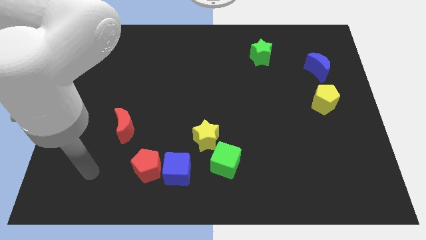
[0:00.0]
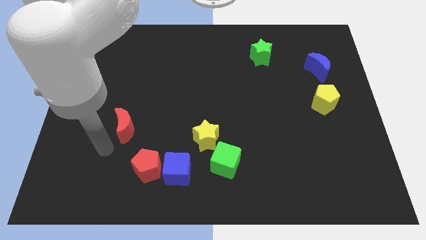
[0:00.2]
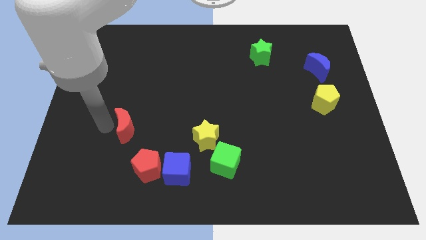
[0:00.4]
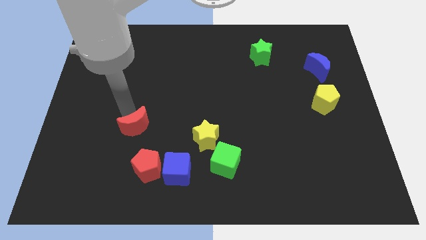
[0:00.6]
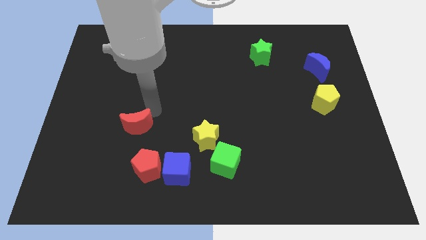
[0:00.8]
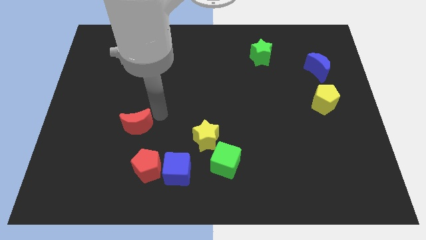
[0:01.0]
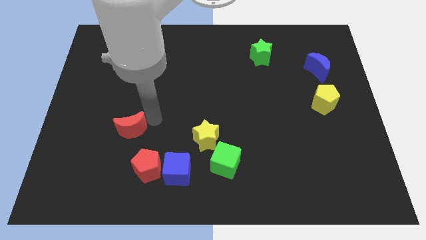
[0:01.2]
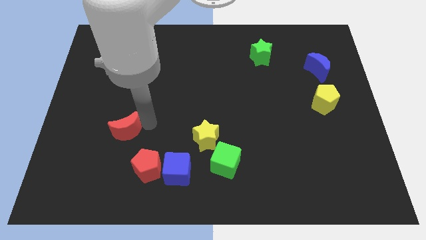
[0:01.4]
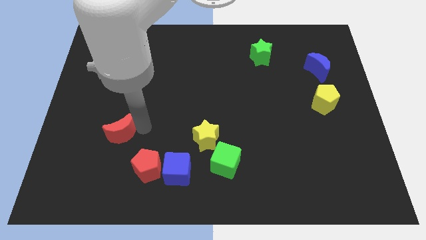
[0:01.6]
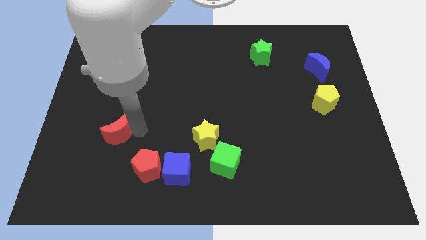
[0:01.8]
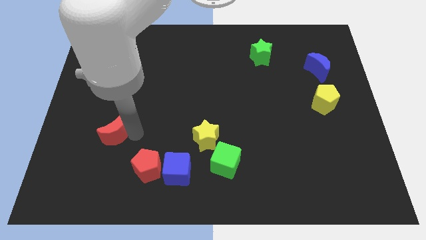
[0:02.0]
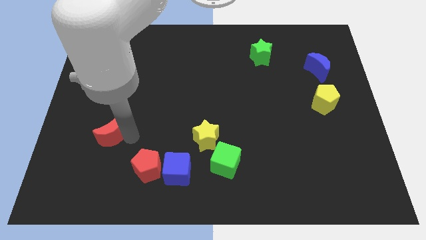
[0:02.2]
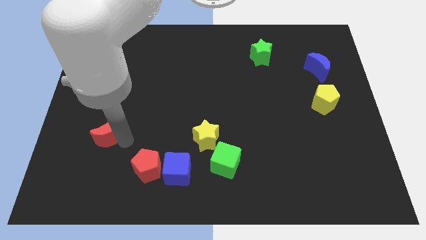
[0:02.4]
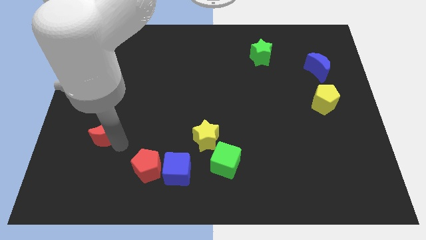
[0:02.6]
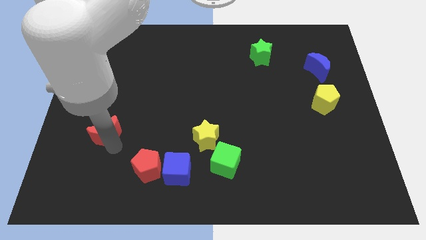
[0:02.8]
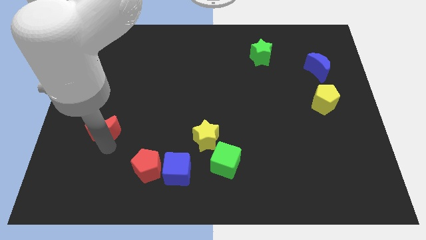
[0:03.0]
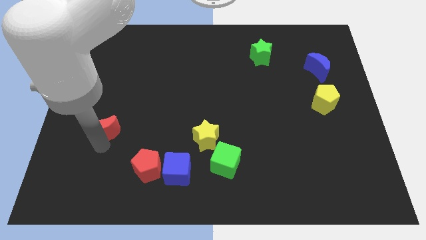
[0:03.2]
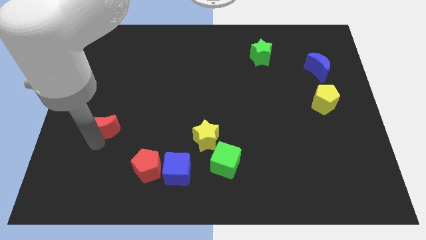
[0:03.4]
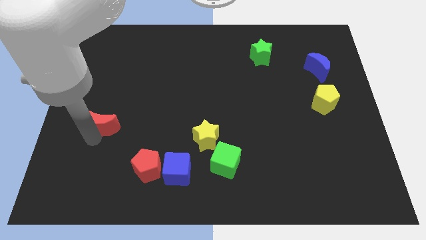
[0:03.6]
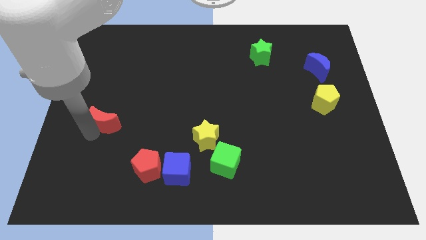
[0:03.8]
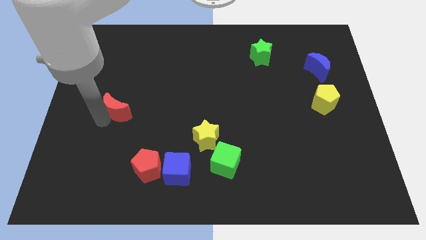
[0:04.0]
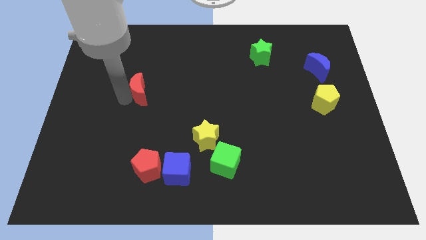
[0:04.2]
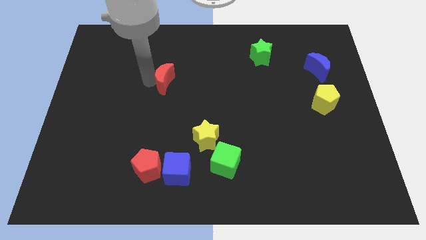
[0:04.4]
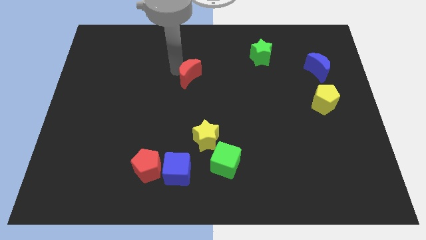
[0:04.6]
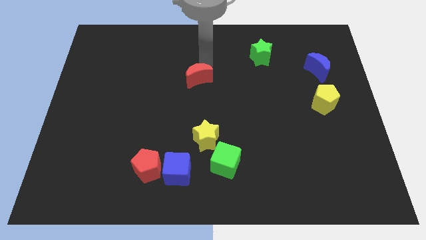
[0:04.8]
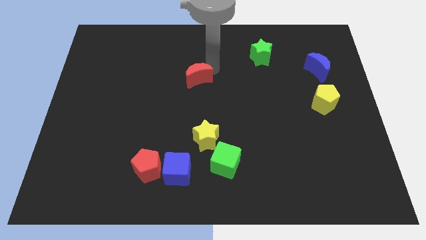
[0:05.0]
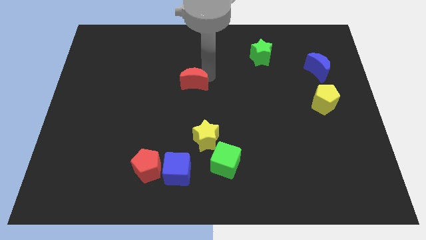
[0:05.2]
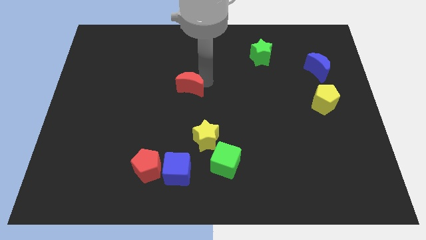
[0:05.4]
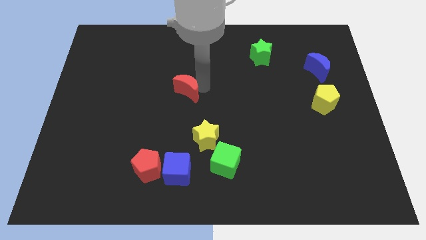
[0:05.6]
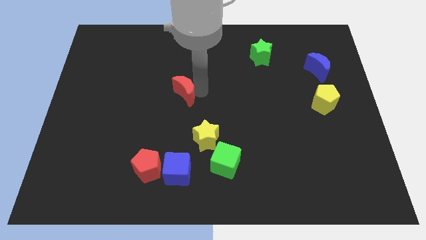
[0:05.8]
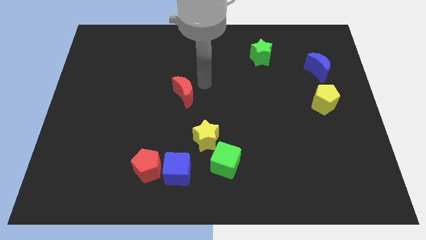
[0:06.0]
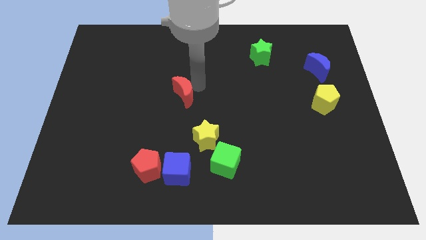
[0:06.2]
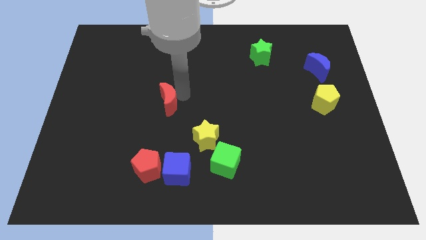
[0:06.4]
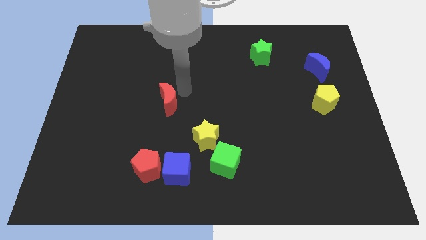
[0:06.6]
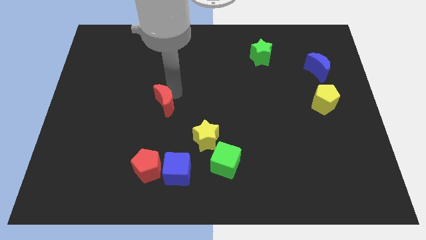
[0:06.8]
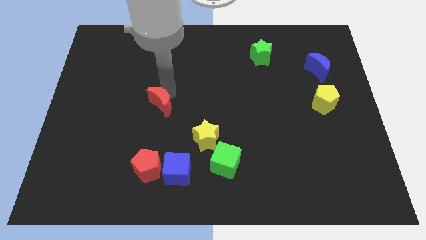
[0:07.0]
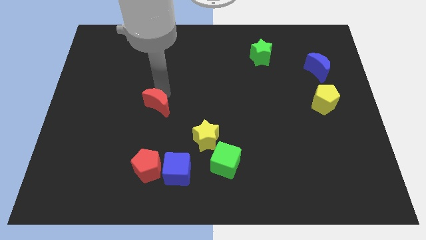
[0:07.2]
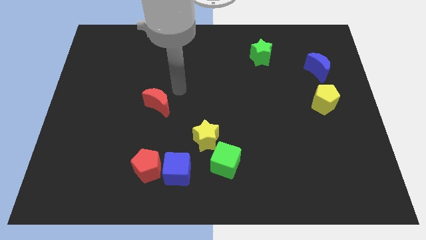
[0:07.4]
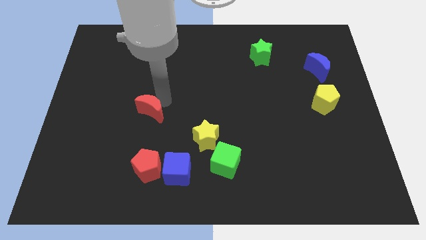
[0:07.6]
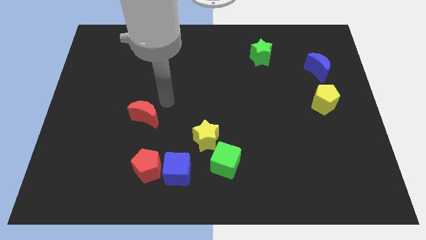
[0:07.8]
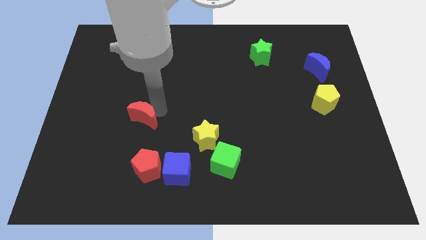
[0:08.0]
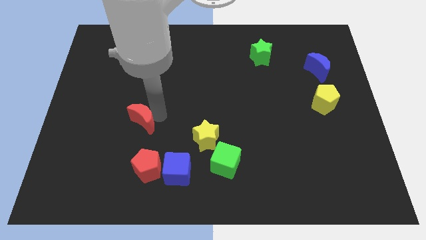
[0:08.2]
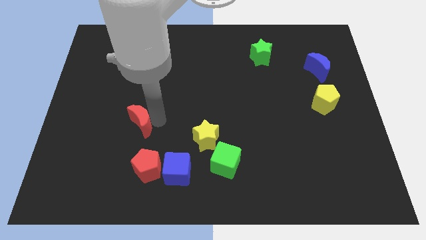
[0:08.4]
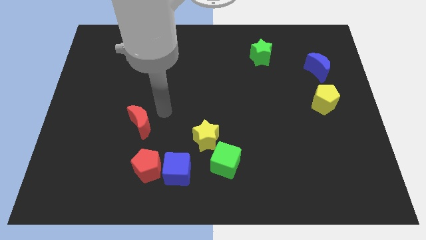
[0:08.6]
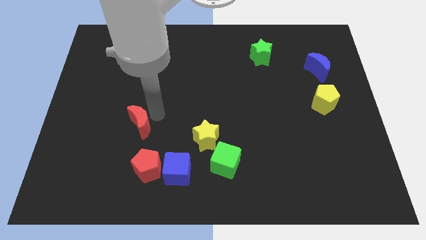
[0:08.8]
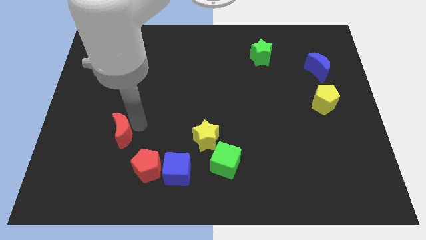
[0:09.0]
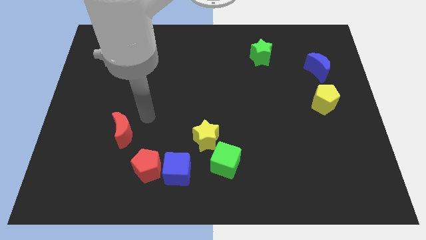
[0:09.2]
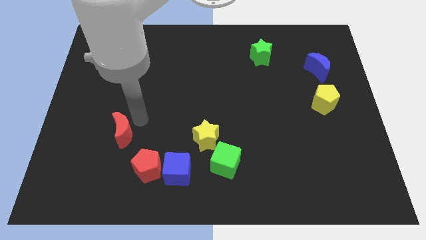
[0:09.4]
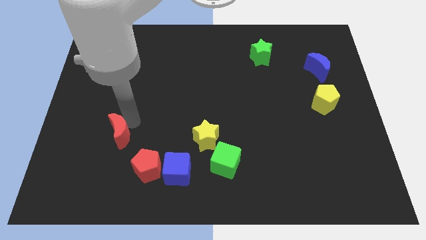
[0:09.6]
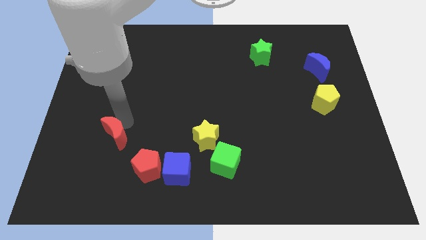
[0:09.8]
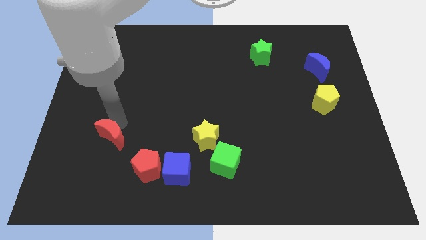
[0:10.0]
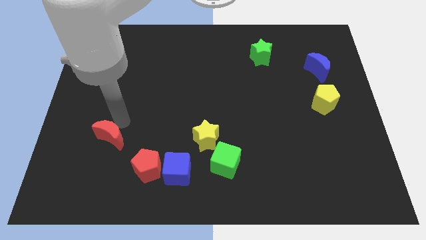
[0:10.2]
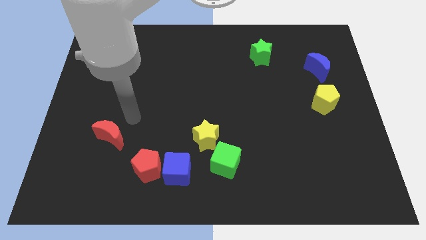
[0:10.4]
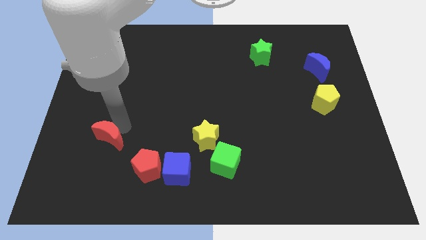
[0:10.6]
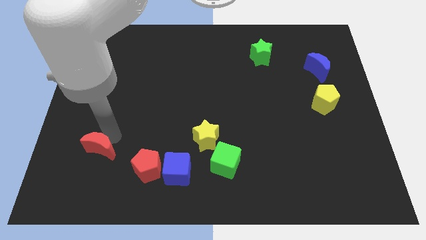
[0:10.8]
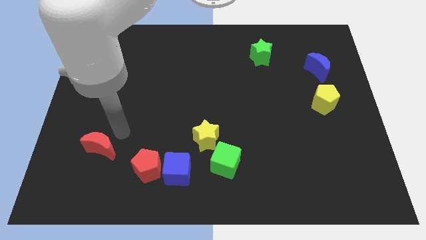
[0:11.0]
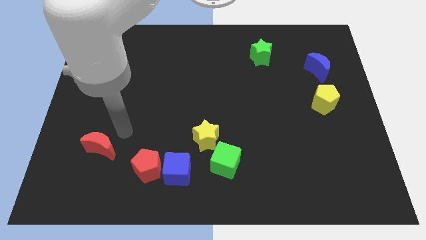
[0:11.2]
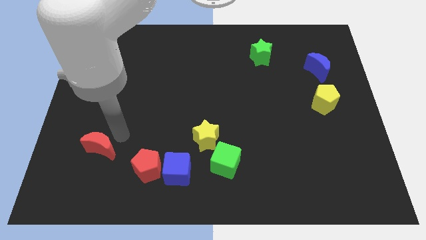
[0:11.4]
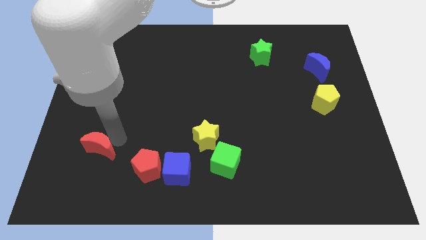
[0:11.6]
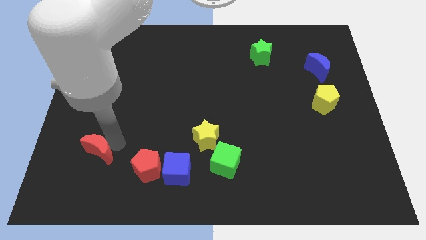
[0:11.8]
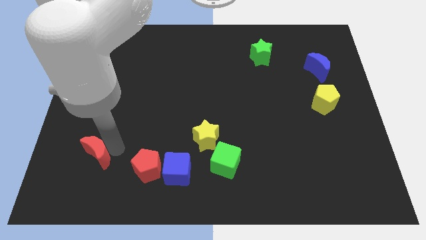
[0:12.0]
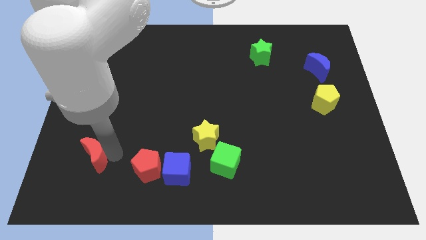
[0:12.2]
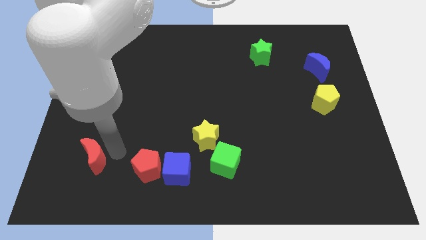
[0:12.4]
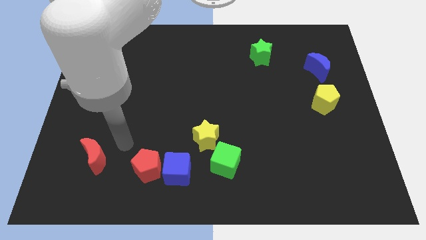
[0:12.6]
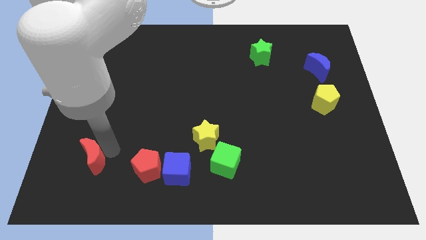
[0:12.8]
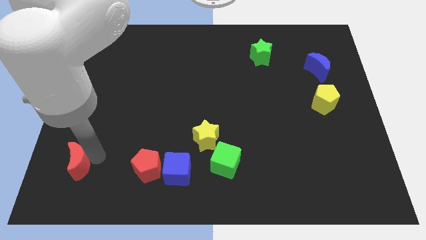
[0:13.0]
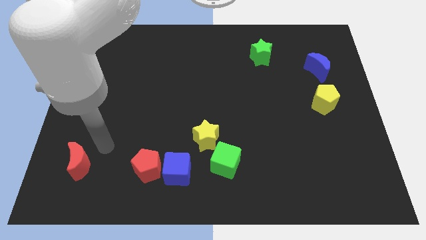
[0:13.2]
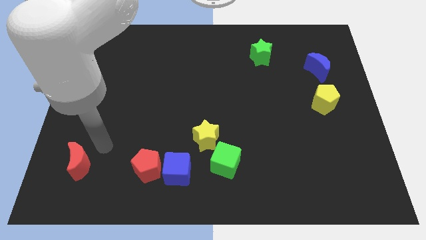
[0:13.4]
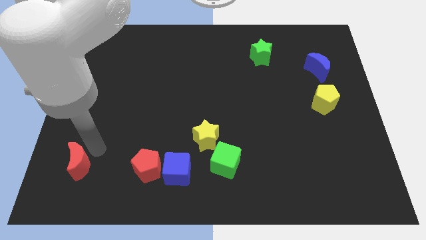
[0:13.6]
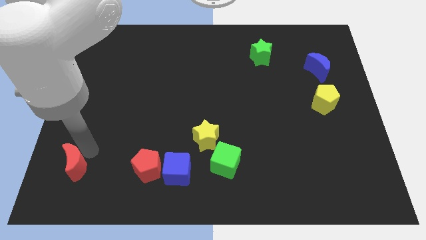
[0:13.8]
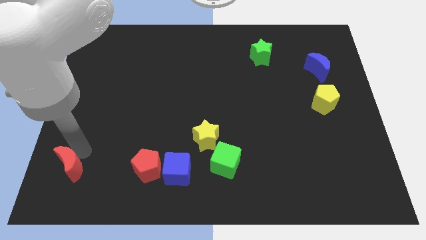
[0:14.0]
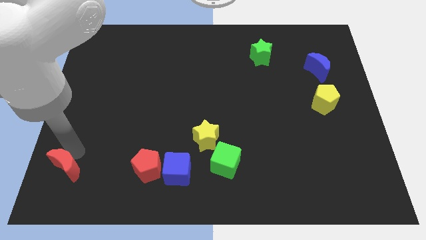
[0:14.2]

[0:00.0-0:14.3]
push the red moon to the bottom left of the board
